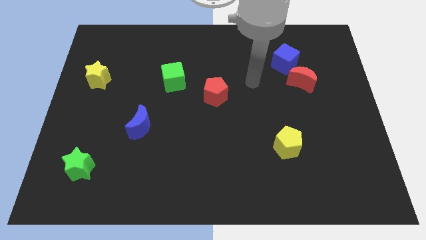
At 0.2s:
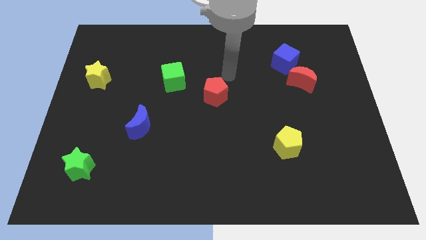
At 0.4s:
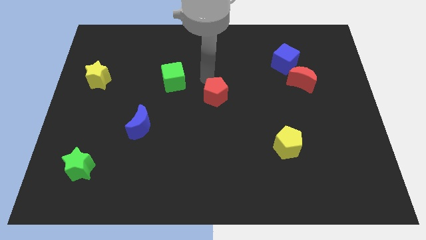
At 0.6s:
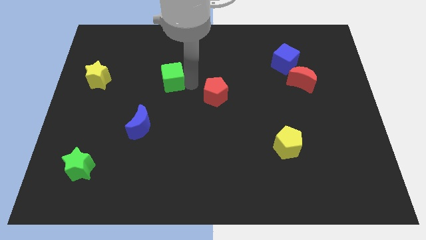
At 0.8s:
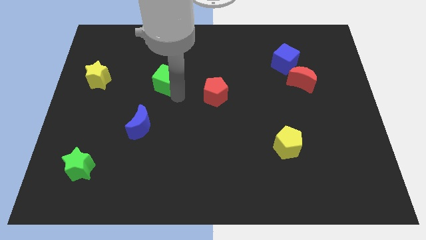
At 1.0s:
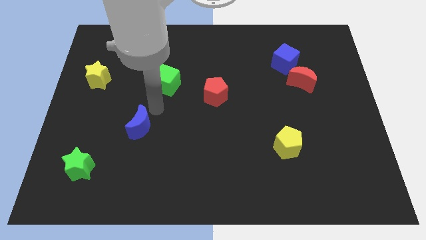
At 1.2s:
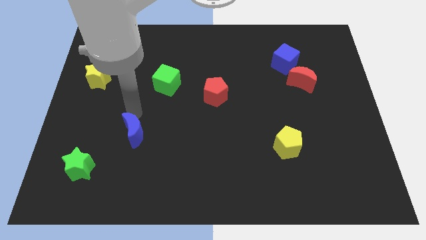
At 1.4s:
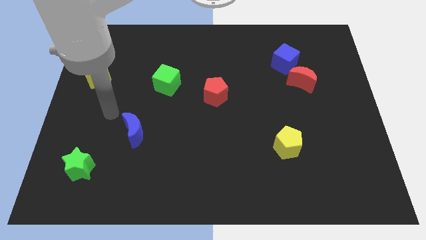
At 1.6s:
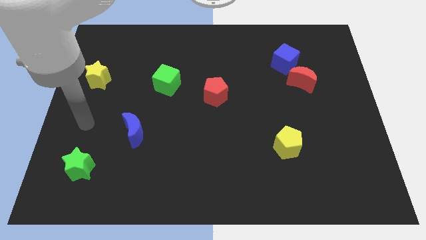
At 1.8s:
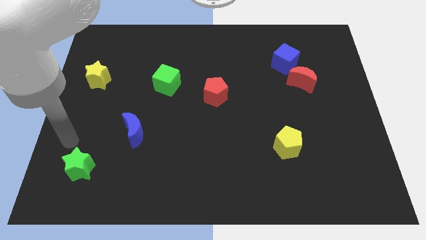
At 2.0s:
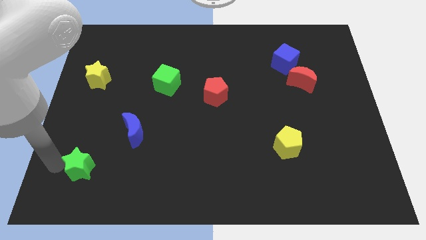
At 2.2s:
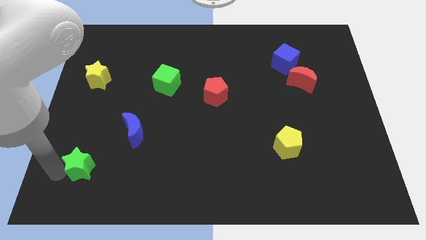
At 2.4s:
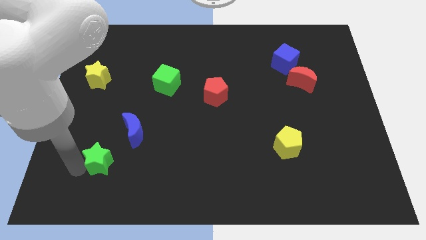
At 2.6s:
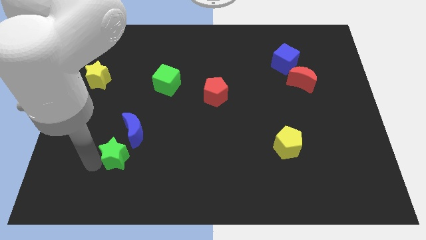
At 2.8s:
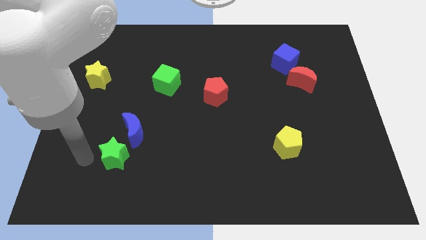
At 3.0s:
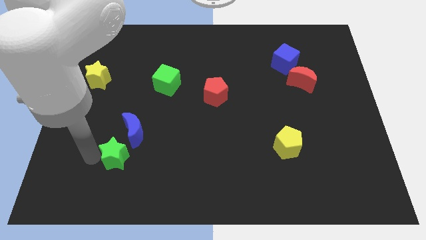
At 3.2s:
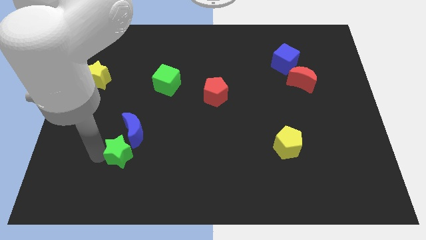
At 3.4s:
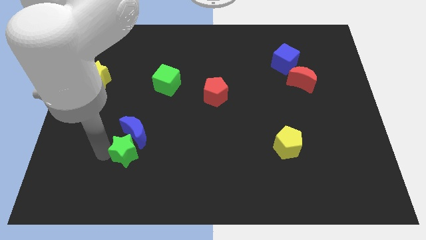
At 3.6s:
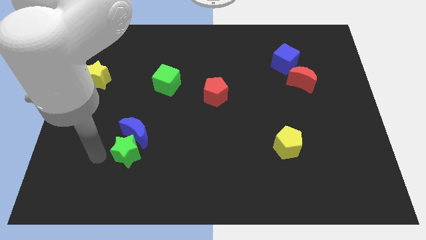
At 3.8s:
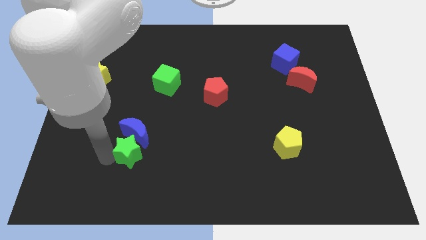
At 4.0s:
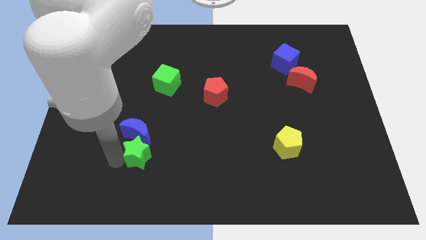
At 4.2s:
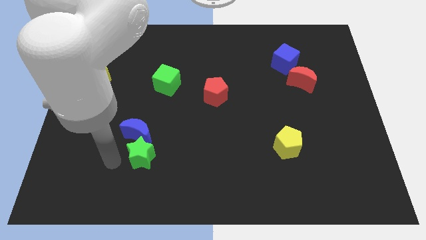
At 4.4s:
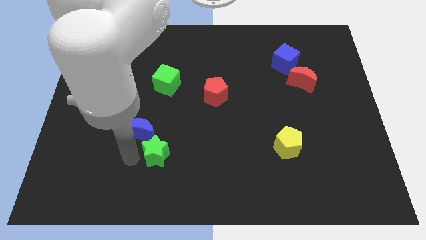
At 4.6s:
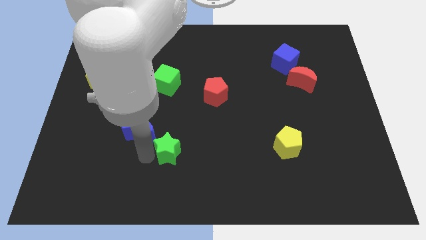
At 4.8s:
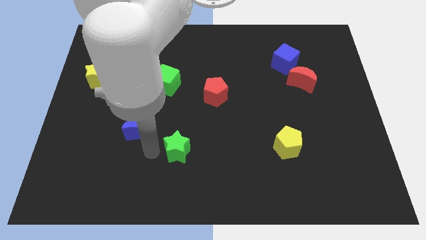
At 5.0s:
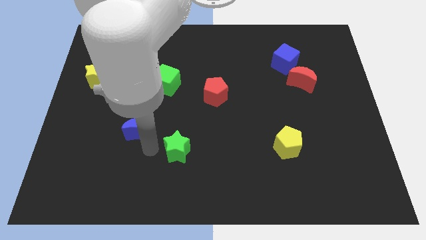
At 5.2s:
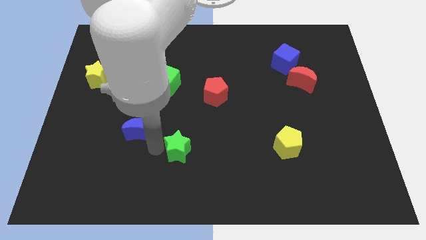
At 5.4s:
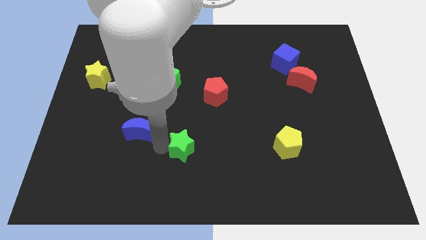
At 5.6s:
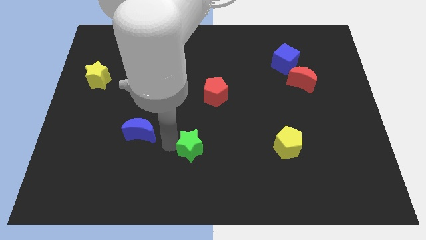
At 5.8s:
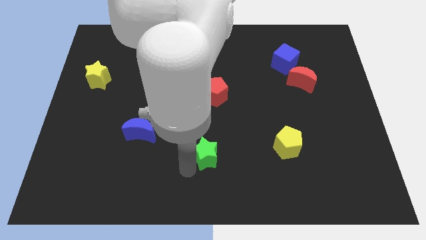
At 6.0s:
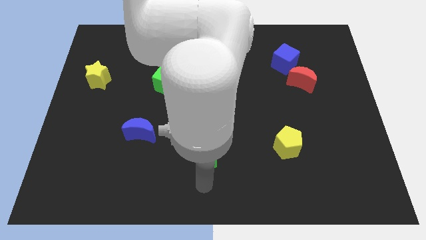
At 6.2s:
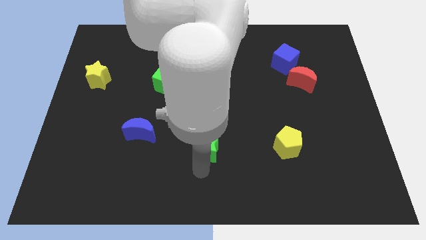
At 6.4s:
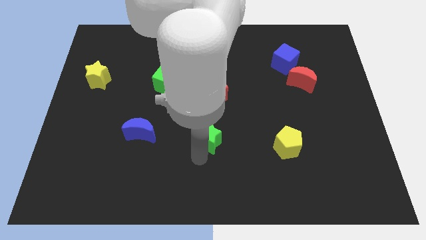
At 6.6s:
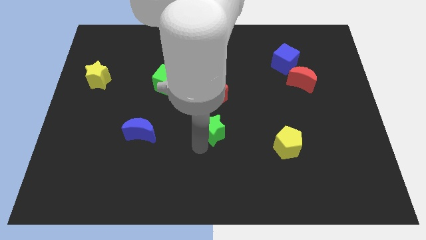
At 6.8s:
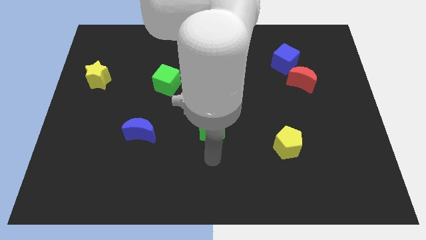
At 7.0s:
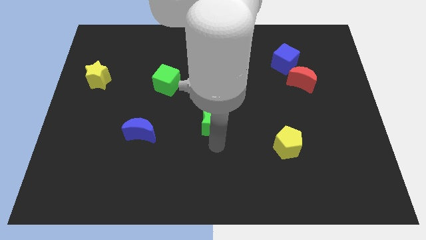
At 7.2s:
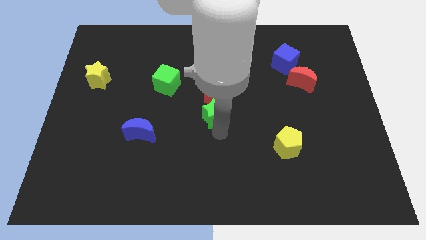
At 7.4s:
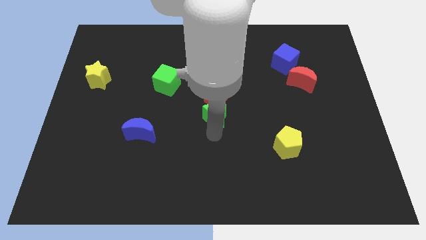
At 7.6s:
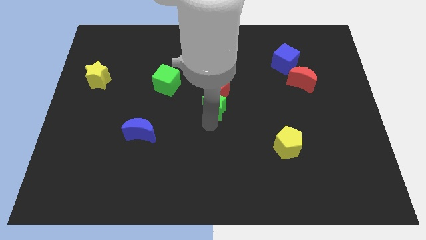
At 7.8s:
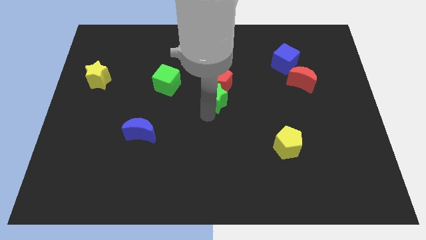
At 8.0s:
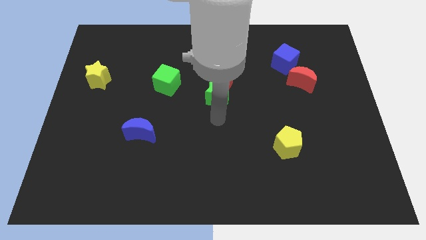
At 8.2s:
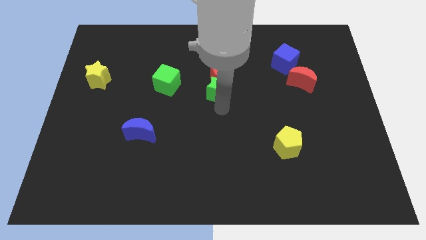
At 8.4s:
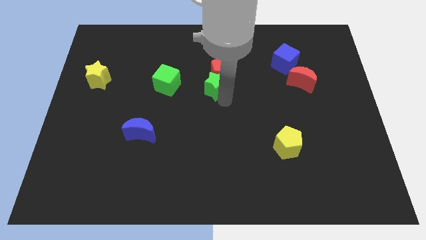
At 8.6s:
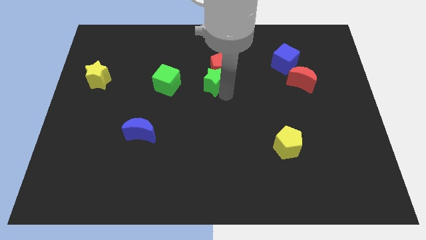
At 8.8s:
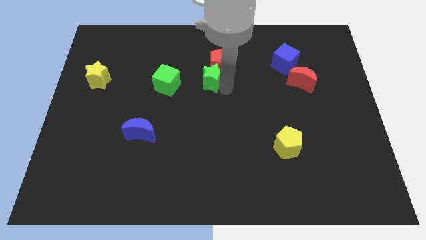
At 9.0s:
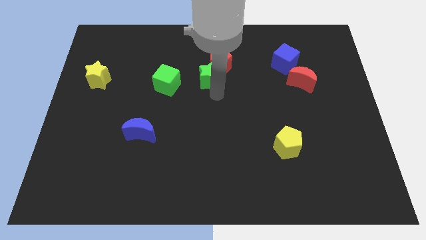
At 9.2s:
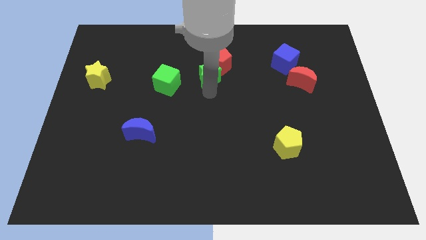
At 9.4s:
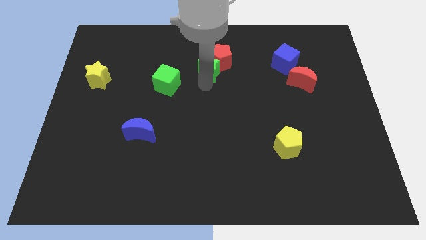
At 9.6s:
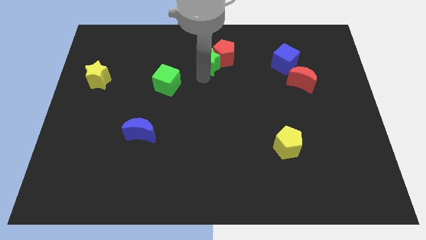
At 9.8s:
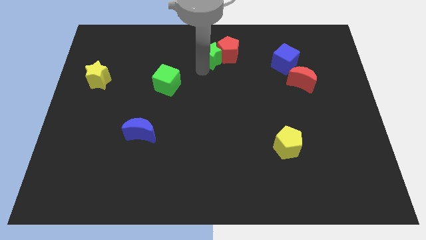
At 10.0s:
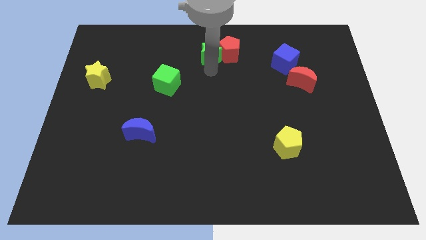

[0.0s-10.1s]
slide the green star to the top side

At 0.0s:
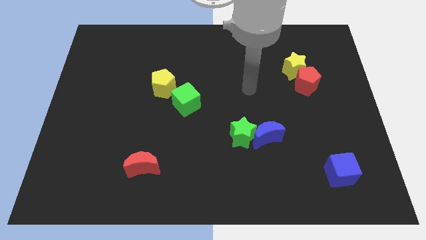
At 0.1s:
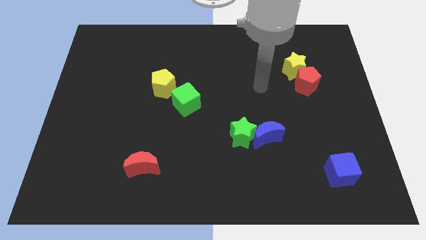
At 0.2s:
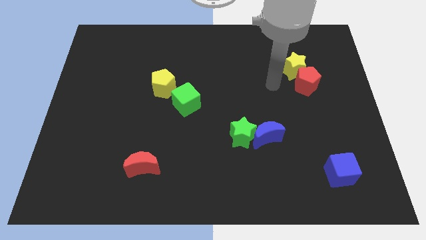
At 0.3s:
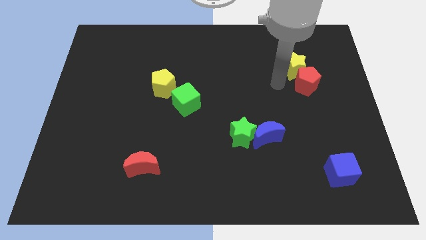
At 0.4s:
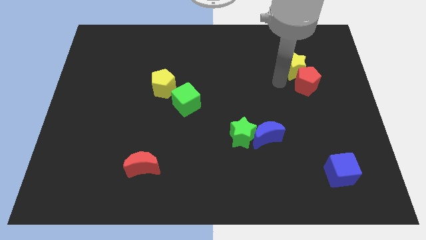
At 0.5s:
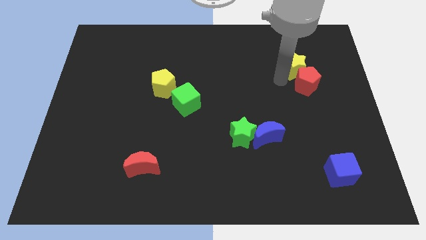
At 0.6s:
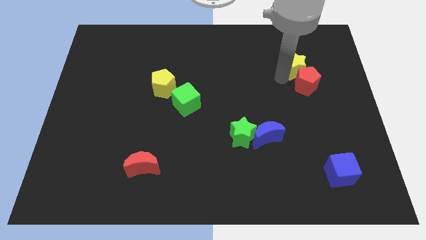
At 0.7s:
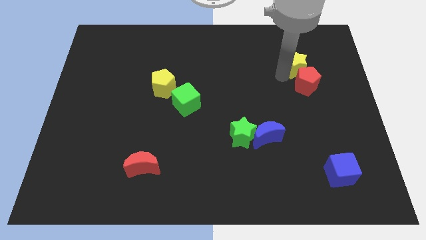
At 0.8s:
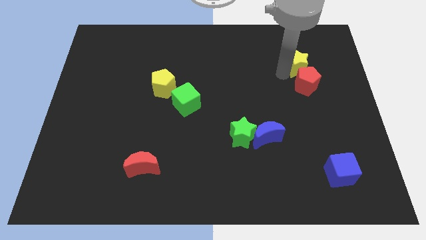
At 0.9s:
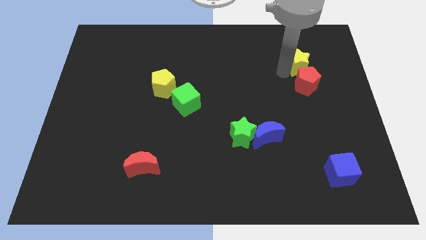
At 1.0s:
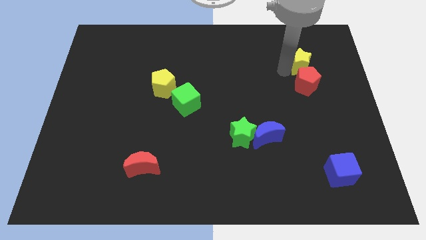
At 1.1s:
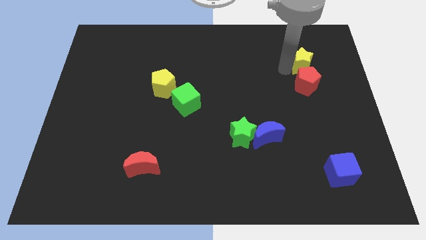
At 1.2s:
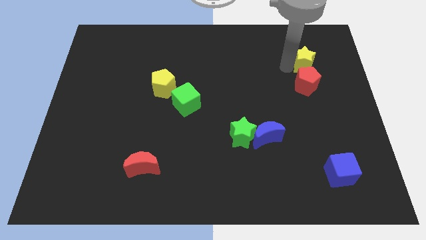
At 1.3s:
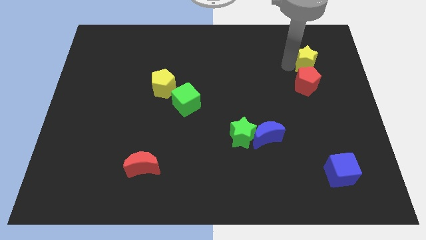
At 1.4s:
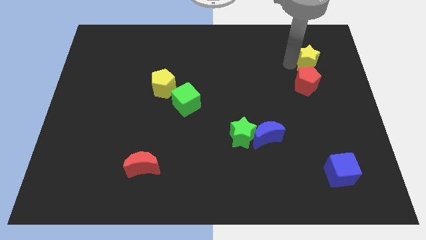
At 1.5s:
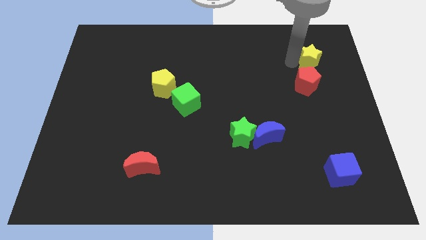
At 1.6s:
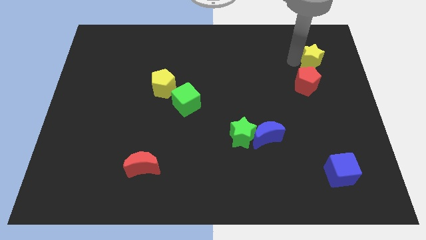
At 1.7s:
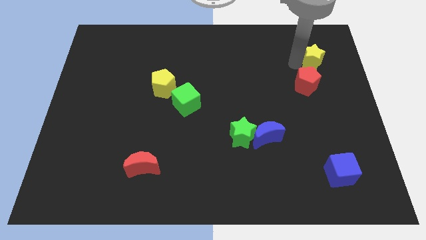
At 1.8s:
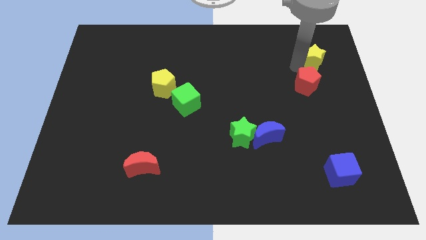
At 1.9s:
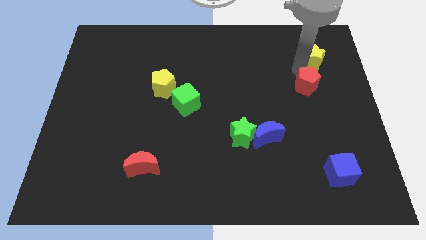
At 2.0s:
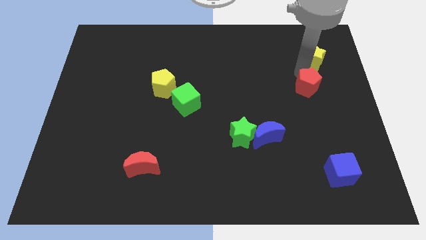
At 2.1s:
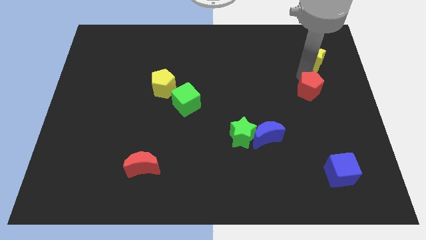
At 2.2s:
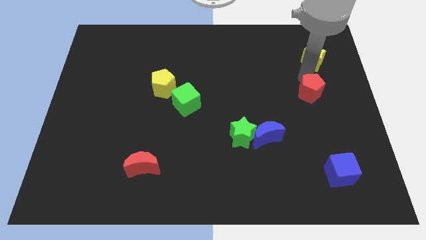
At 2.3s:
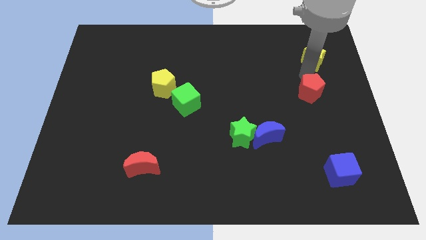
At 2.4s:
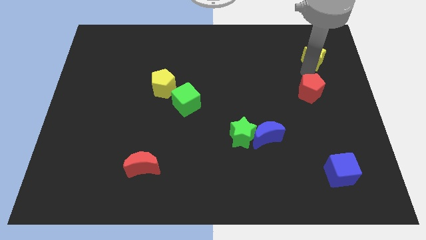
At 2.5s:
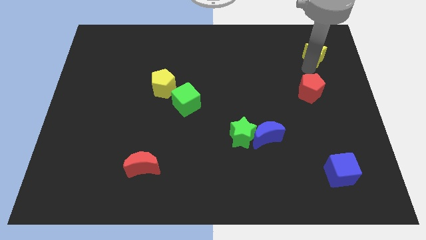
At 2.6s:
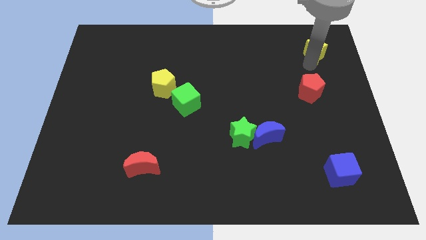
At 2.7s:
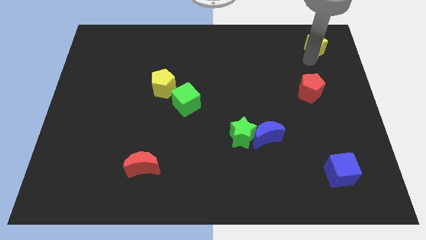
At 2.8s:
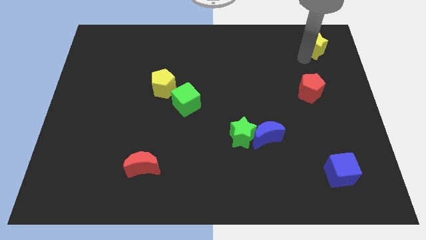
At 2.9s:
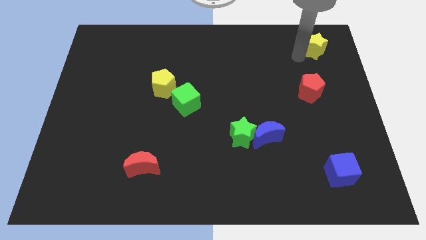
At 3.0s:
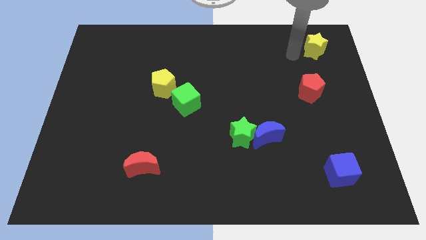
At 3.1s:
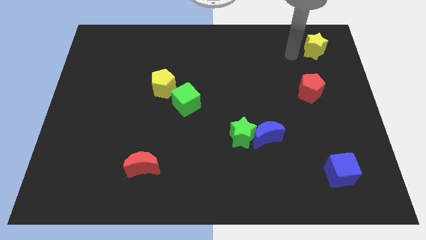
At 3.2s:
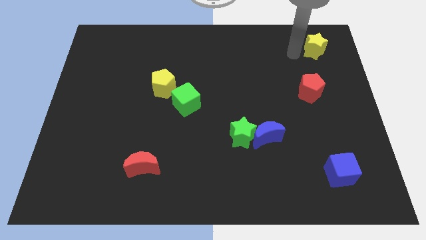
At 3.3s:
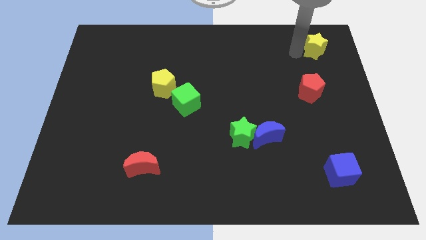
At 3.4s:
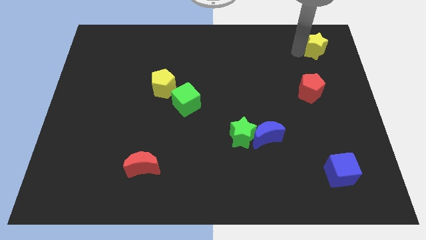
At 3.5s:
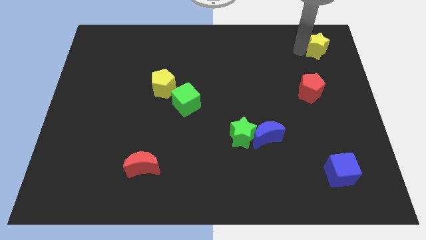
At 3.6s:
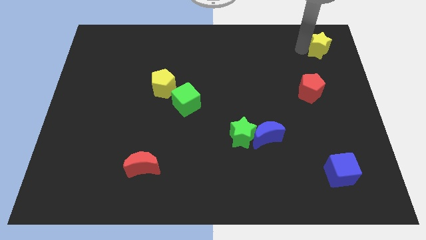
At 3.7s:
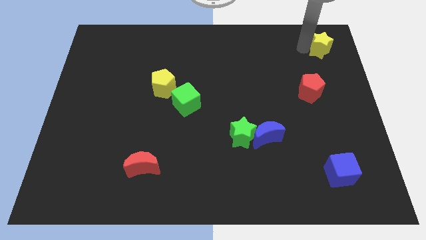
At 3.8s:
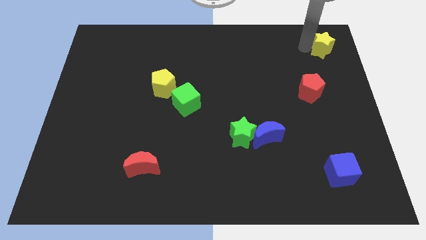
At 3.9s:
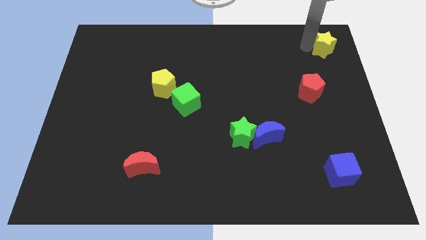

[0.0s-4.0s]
push the yellow star to the upper right corner
